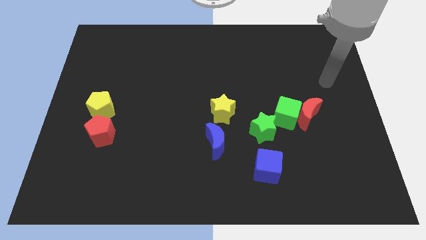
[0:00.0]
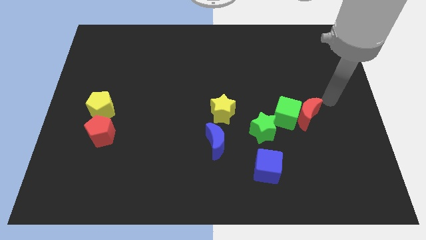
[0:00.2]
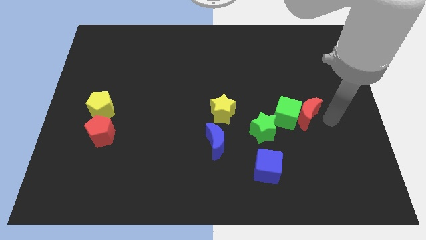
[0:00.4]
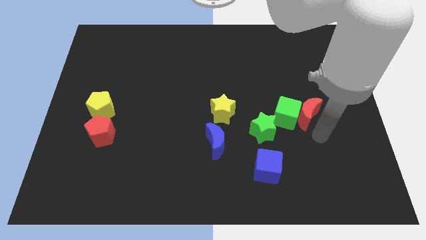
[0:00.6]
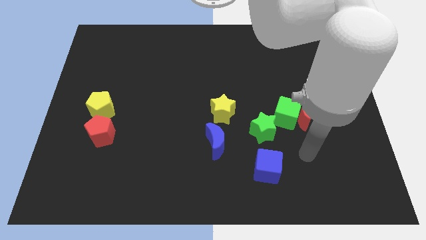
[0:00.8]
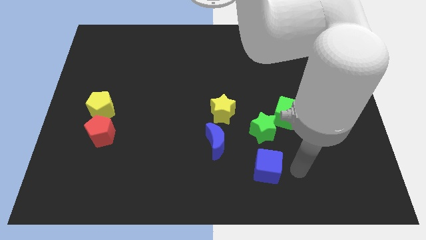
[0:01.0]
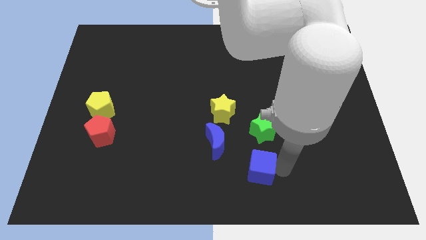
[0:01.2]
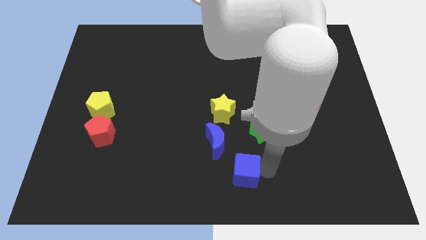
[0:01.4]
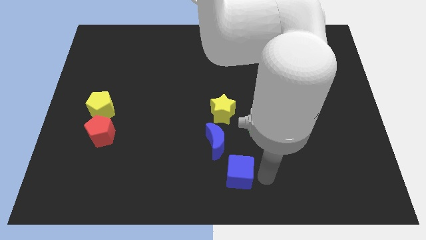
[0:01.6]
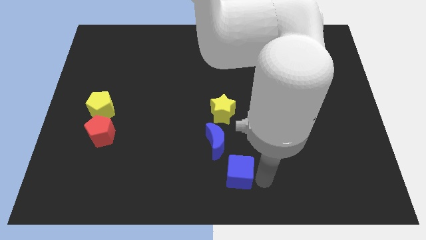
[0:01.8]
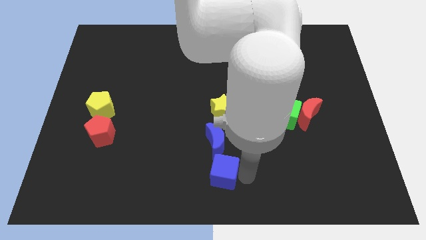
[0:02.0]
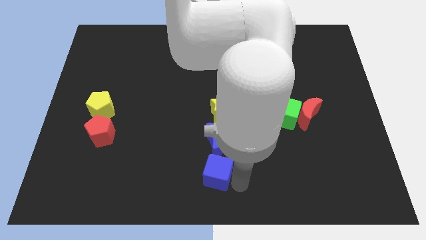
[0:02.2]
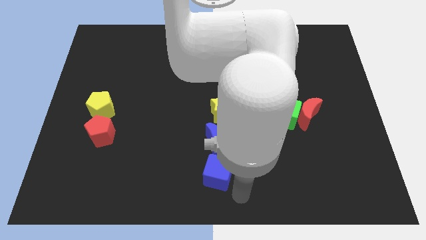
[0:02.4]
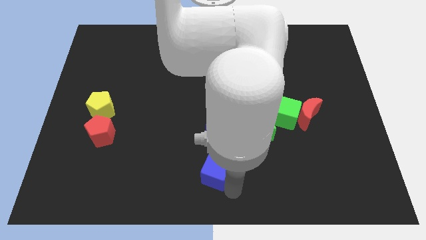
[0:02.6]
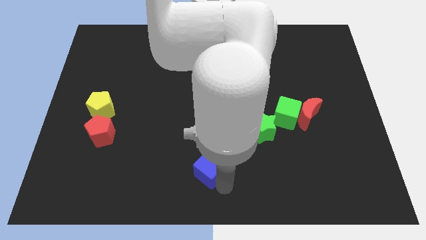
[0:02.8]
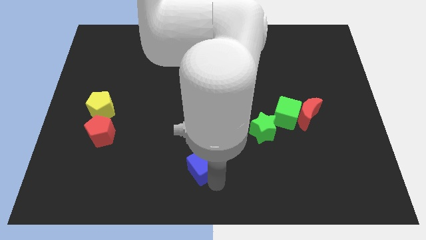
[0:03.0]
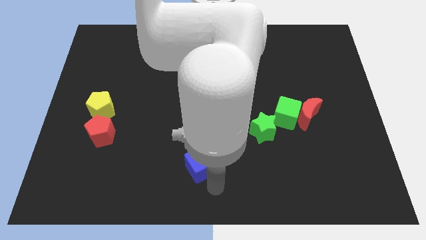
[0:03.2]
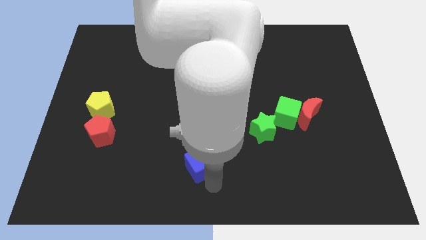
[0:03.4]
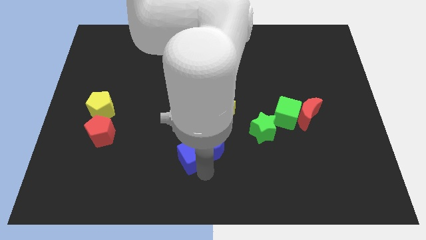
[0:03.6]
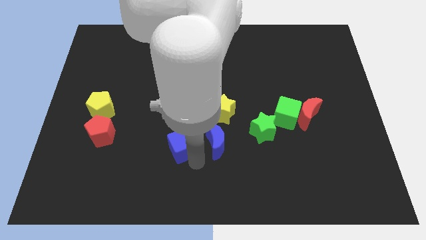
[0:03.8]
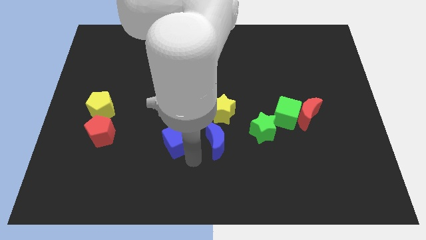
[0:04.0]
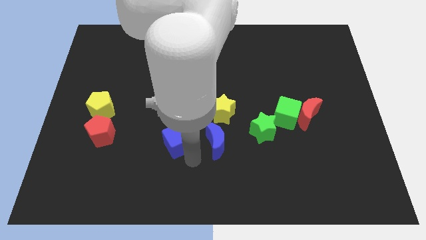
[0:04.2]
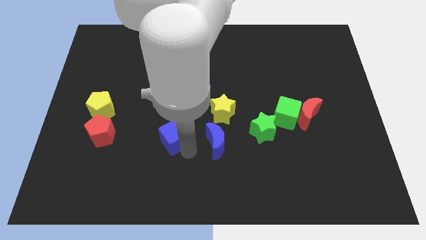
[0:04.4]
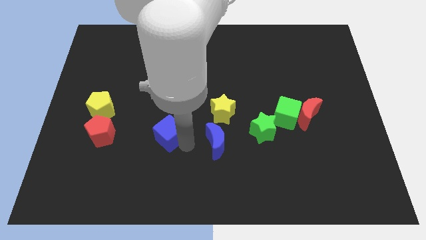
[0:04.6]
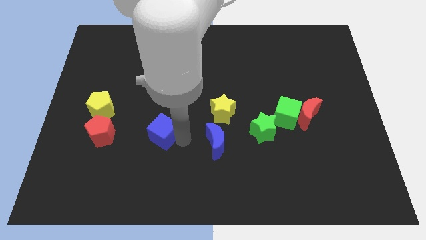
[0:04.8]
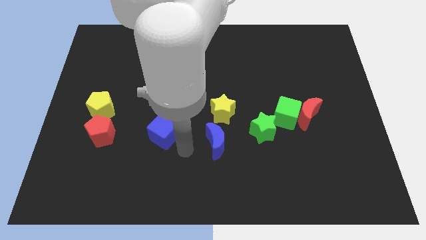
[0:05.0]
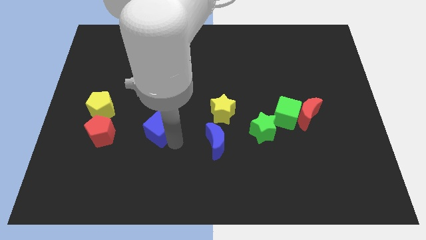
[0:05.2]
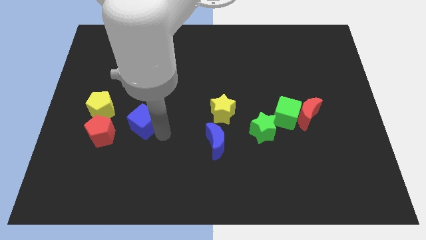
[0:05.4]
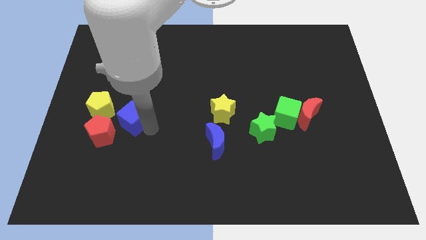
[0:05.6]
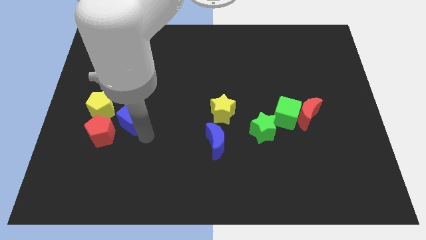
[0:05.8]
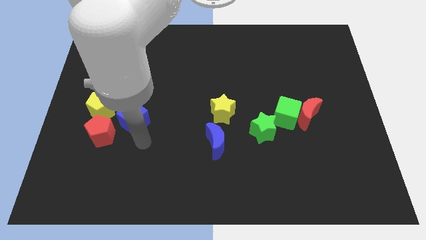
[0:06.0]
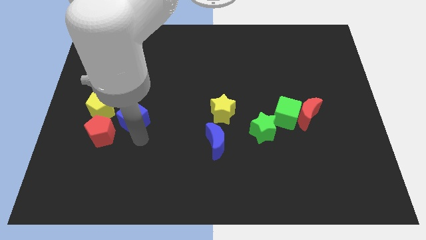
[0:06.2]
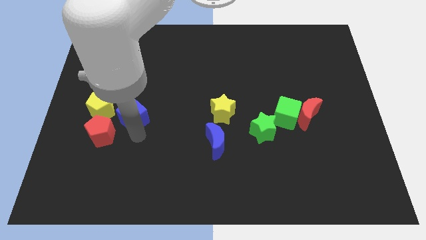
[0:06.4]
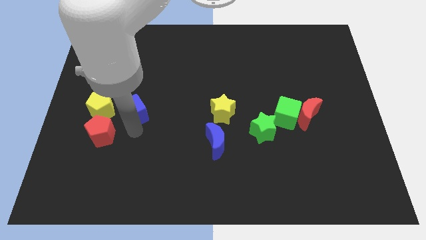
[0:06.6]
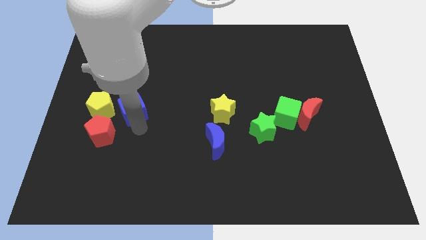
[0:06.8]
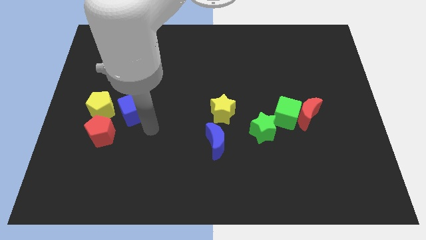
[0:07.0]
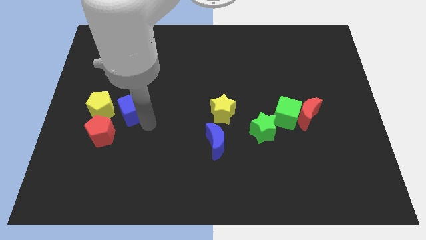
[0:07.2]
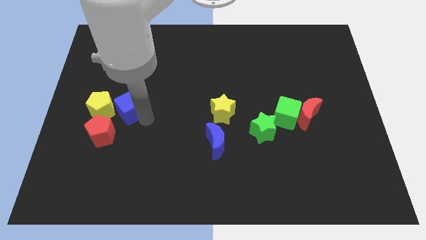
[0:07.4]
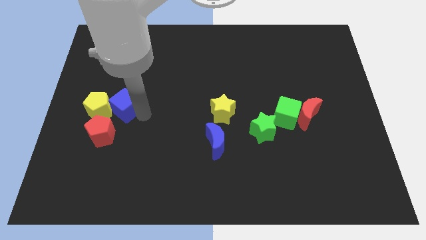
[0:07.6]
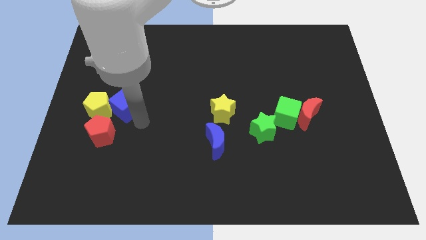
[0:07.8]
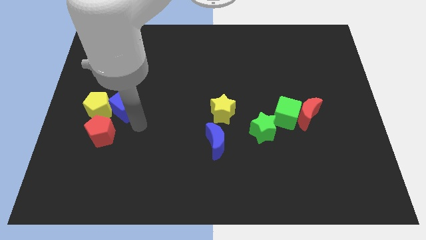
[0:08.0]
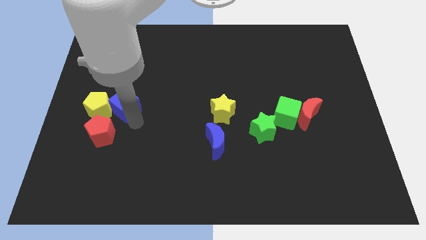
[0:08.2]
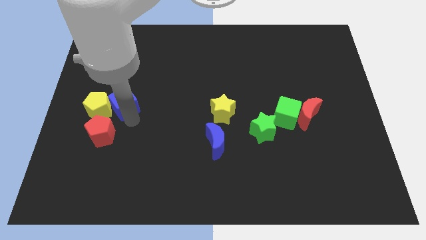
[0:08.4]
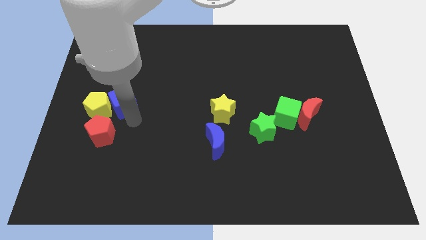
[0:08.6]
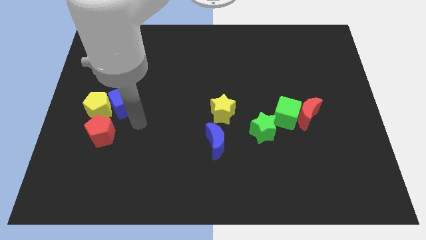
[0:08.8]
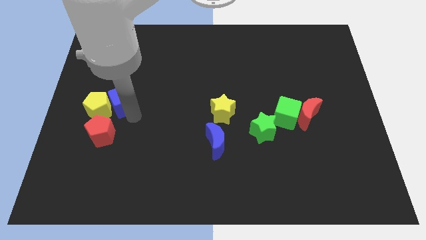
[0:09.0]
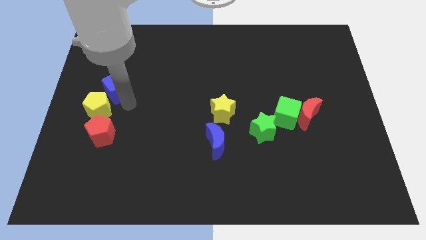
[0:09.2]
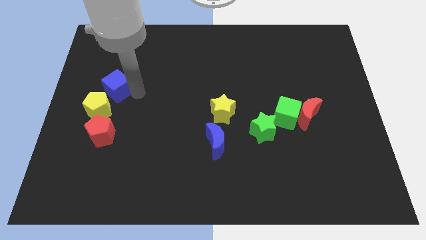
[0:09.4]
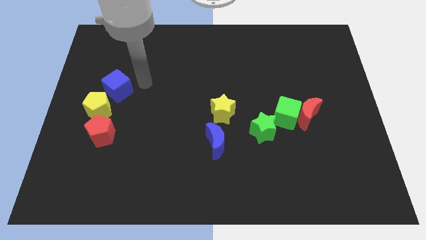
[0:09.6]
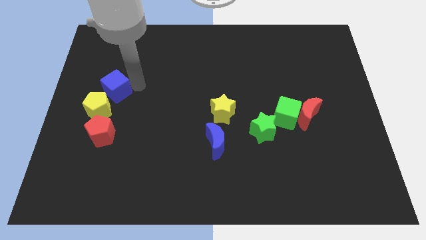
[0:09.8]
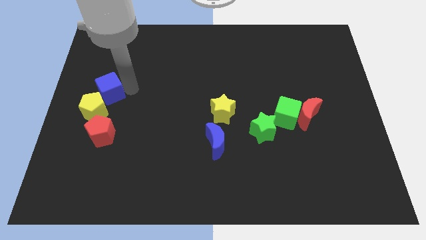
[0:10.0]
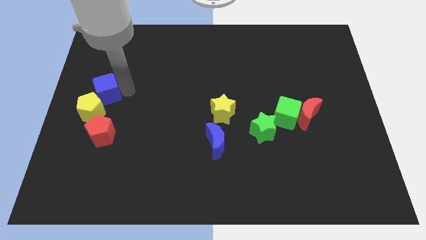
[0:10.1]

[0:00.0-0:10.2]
slide the blue cube to the center left

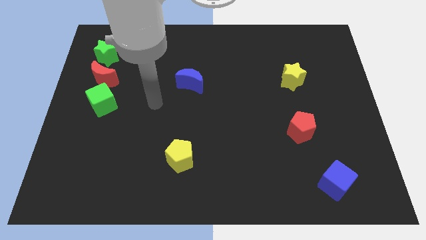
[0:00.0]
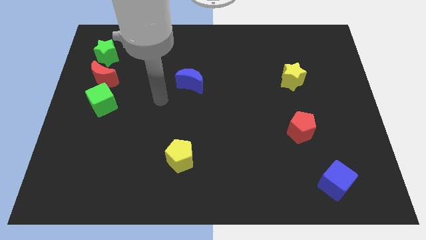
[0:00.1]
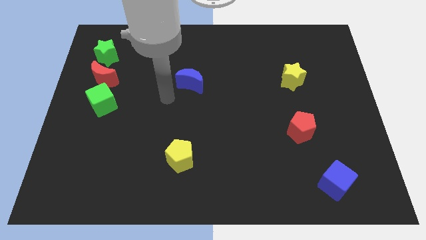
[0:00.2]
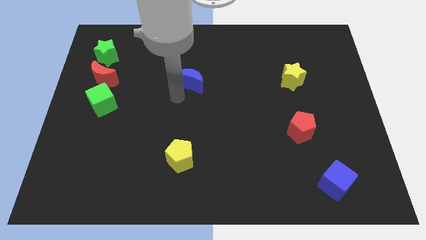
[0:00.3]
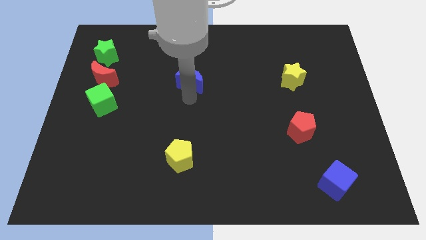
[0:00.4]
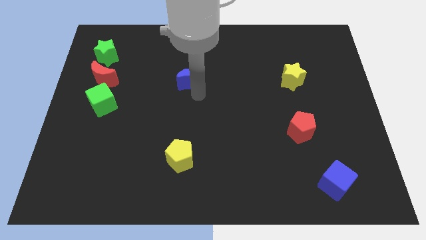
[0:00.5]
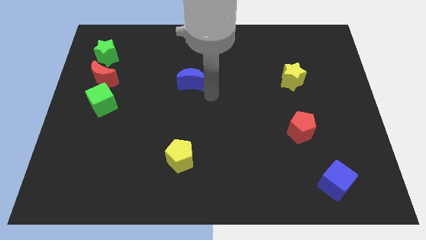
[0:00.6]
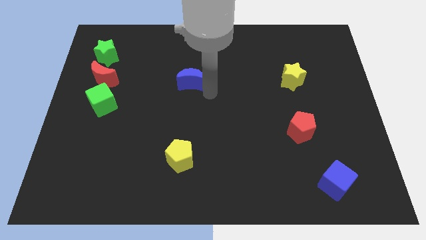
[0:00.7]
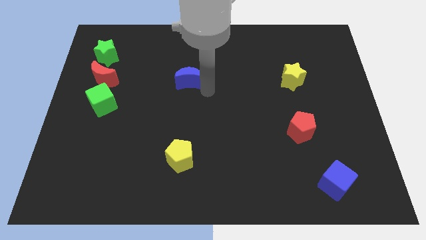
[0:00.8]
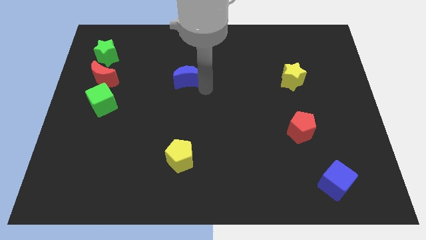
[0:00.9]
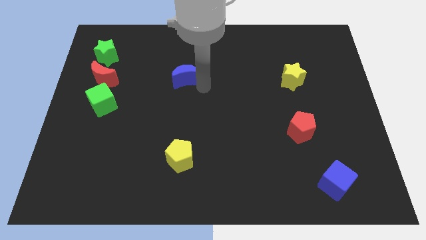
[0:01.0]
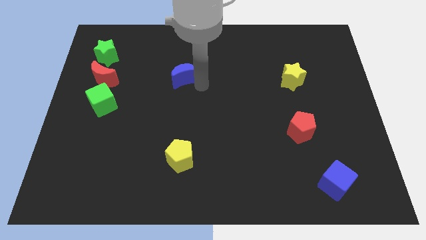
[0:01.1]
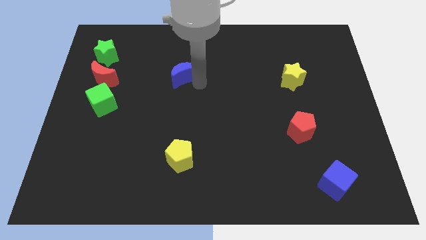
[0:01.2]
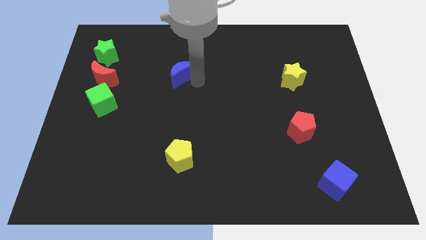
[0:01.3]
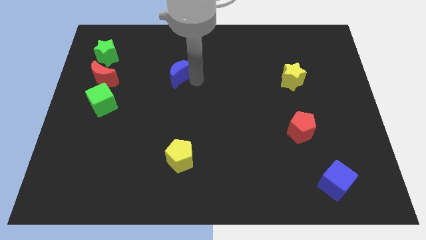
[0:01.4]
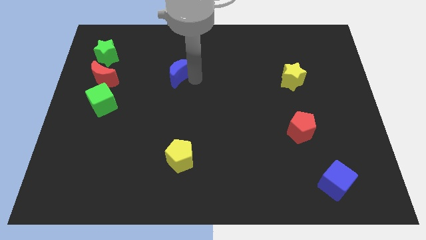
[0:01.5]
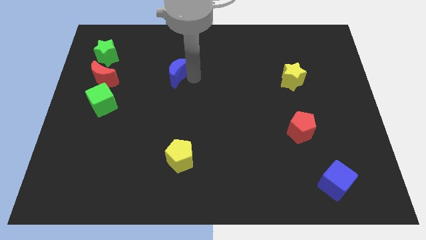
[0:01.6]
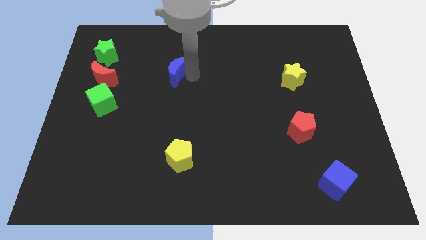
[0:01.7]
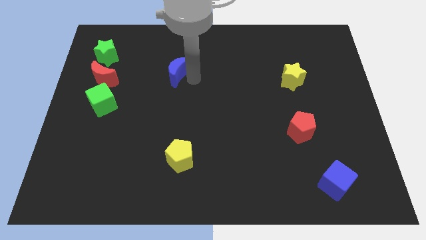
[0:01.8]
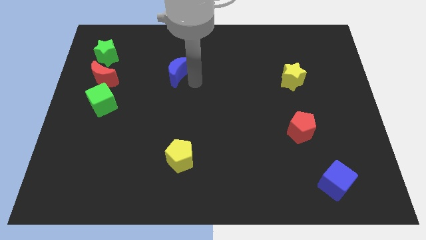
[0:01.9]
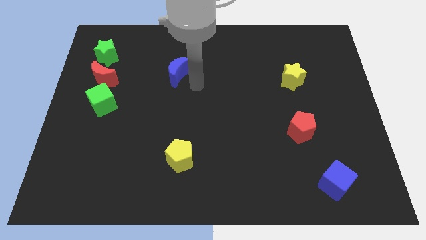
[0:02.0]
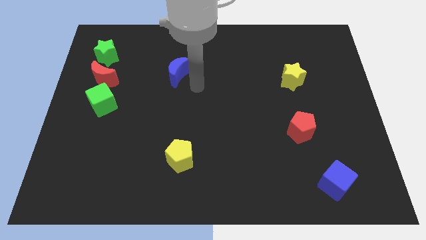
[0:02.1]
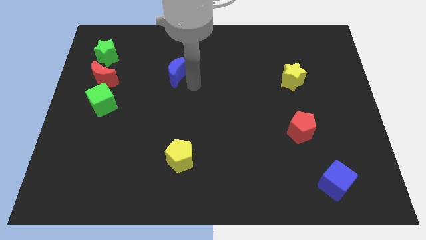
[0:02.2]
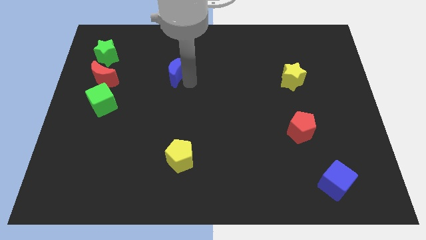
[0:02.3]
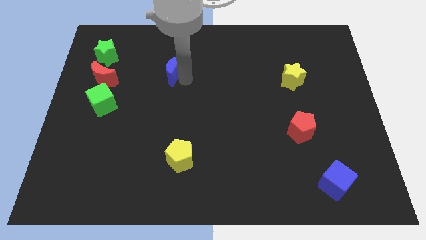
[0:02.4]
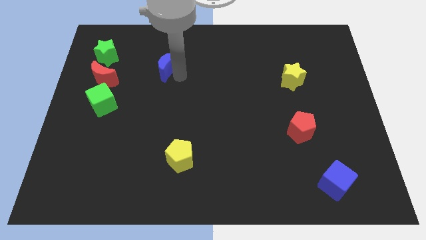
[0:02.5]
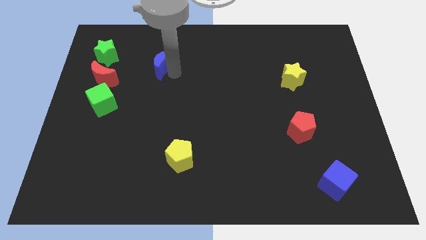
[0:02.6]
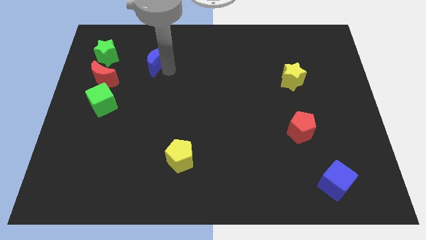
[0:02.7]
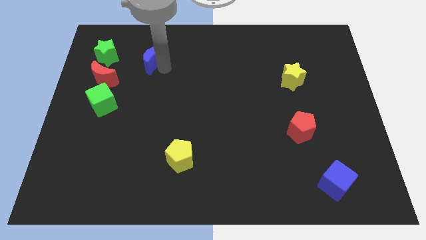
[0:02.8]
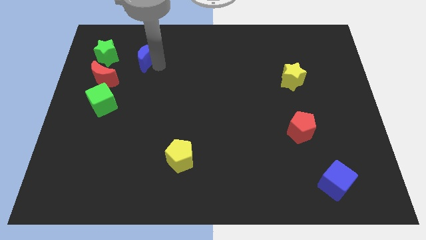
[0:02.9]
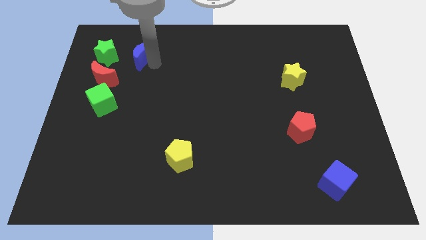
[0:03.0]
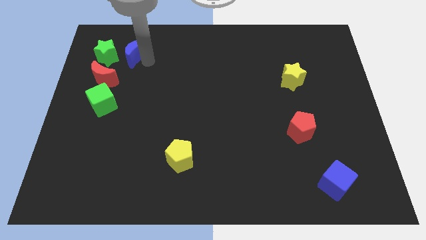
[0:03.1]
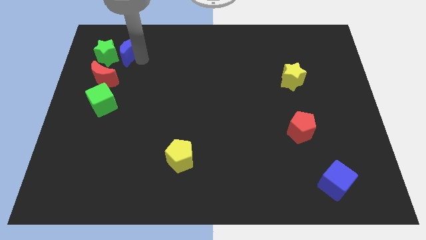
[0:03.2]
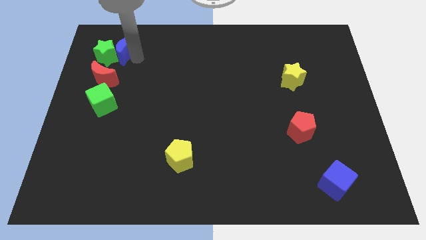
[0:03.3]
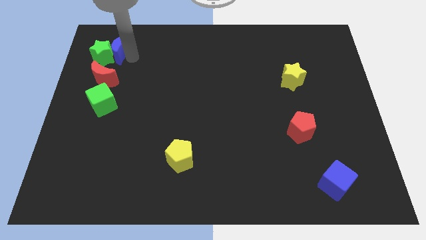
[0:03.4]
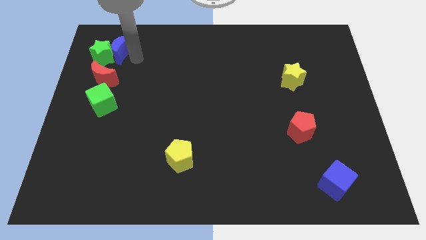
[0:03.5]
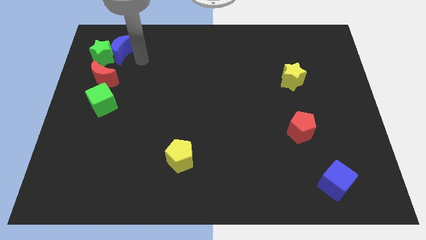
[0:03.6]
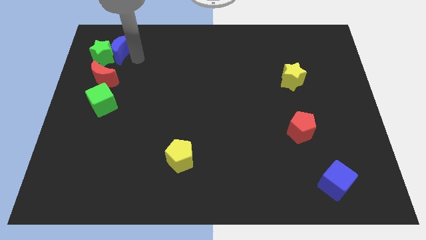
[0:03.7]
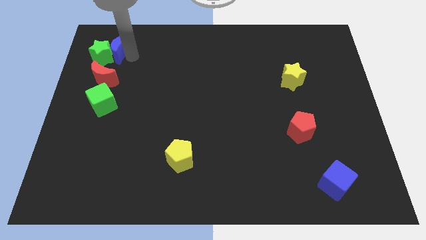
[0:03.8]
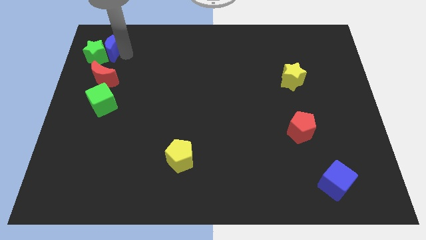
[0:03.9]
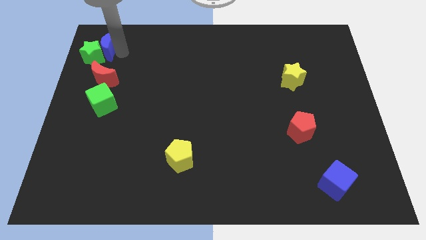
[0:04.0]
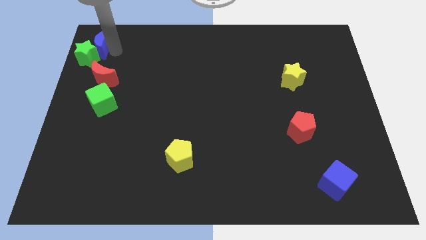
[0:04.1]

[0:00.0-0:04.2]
put the blue moon to the top left
